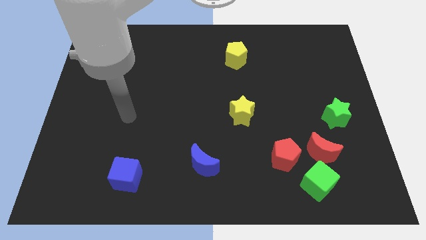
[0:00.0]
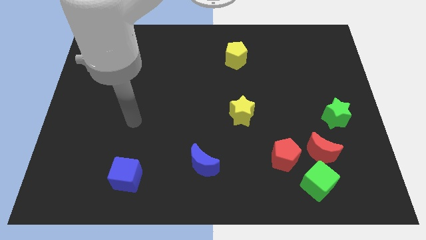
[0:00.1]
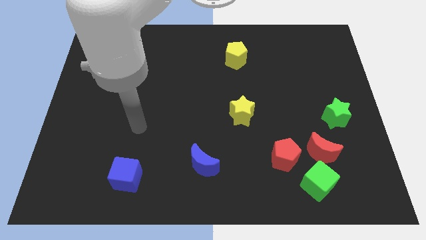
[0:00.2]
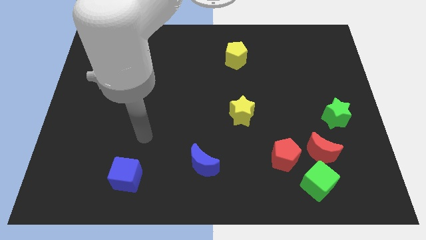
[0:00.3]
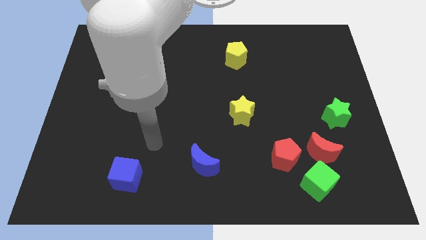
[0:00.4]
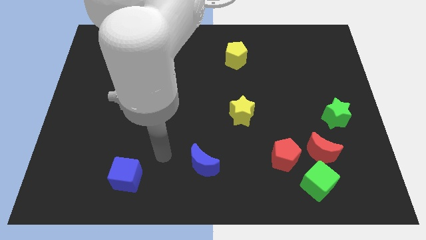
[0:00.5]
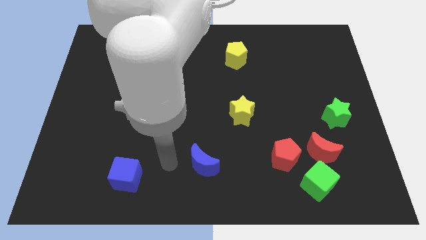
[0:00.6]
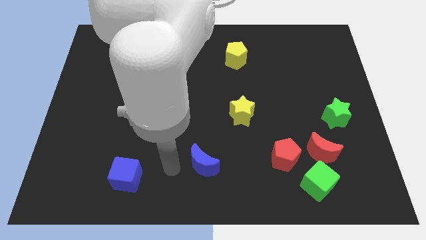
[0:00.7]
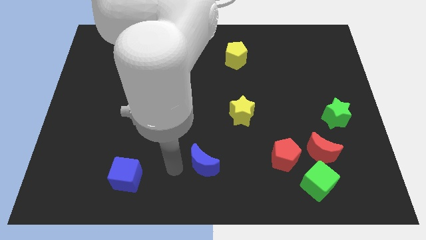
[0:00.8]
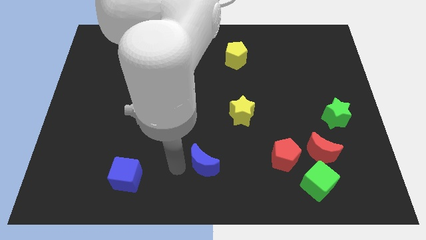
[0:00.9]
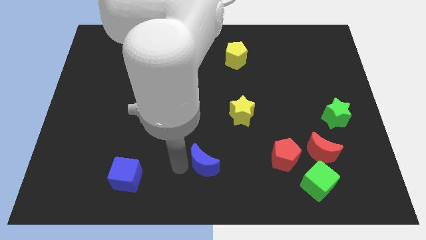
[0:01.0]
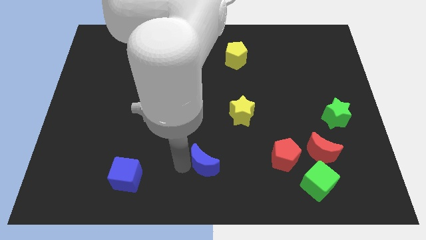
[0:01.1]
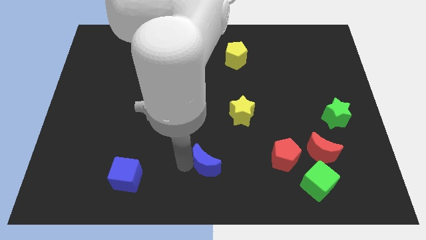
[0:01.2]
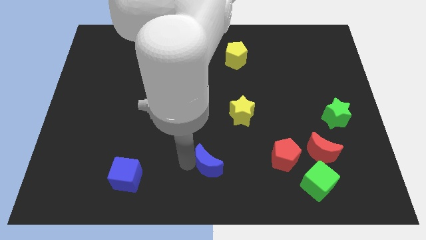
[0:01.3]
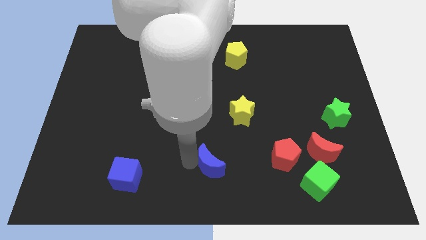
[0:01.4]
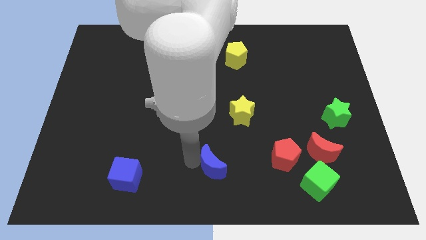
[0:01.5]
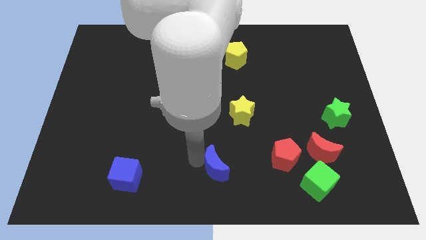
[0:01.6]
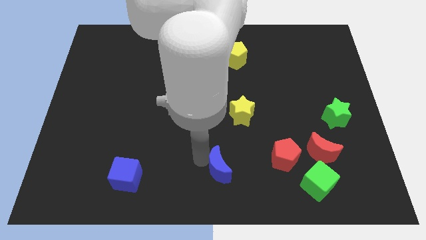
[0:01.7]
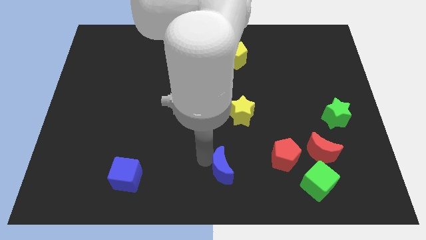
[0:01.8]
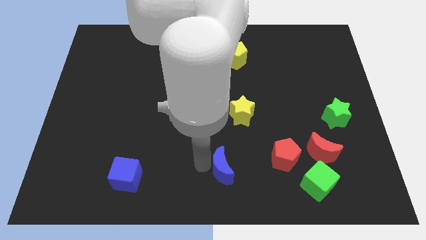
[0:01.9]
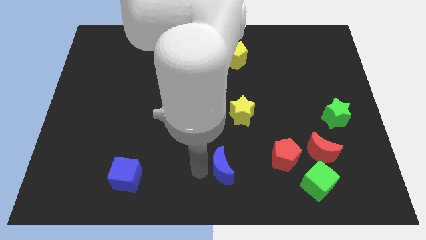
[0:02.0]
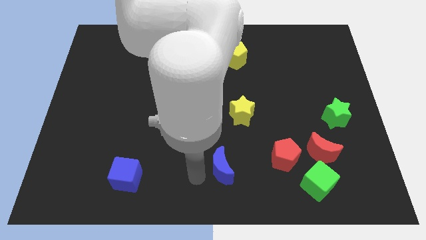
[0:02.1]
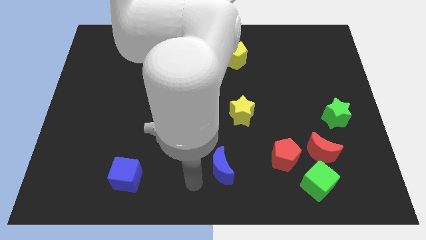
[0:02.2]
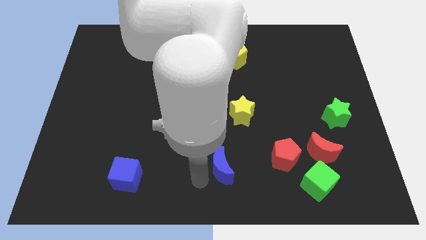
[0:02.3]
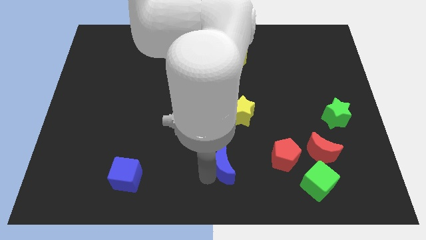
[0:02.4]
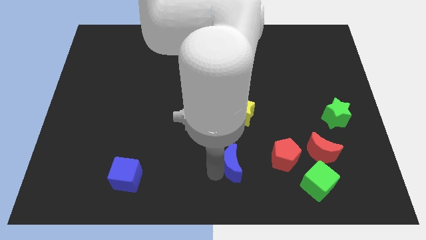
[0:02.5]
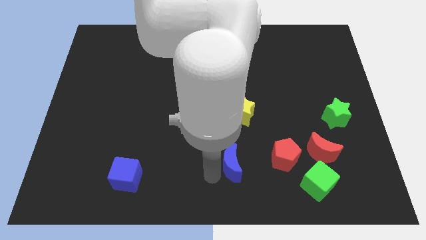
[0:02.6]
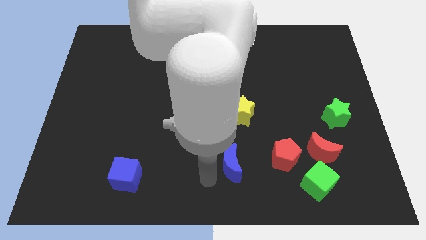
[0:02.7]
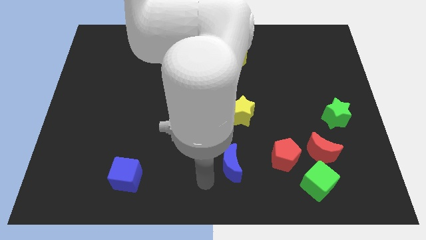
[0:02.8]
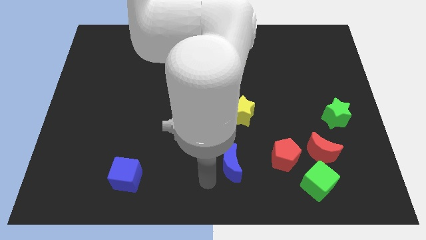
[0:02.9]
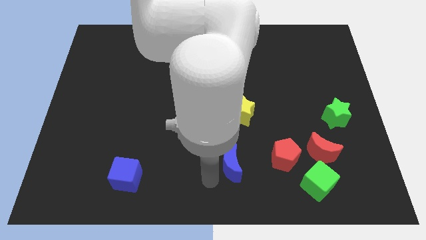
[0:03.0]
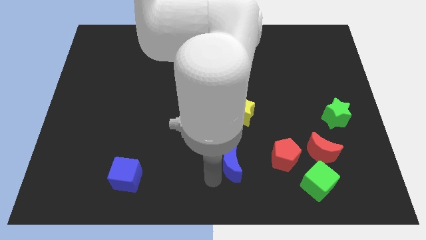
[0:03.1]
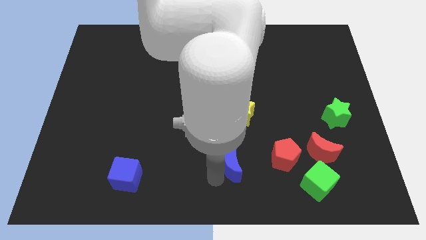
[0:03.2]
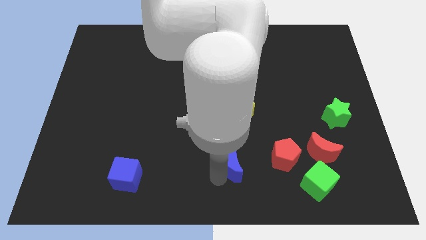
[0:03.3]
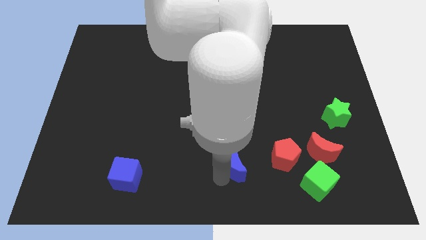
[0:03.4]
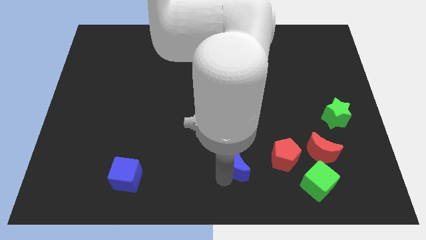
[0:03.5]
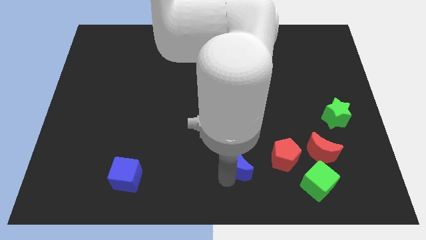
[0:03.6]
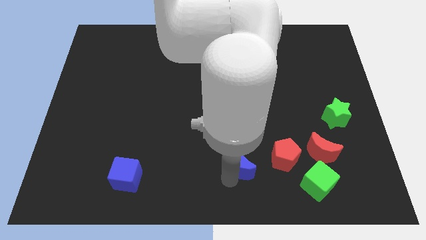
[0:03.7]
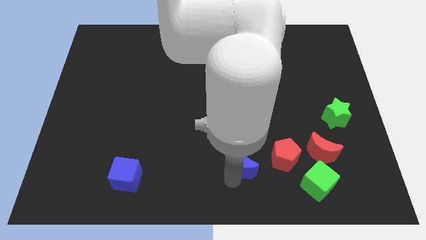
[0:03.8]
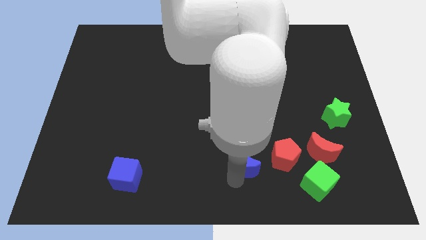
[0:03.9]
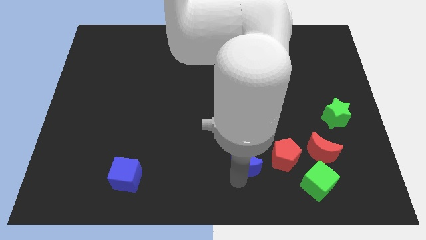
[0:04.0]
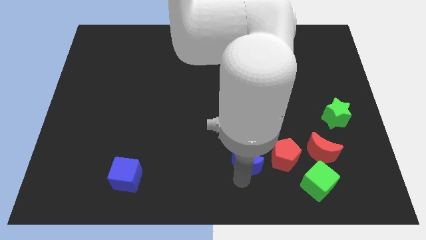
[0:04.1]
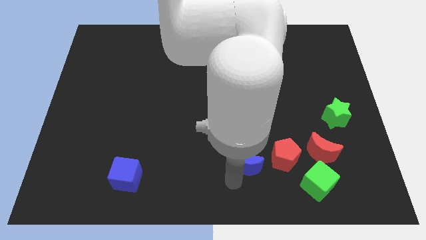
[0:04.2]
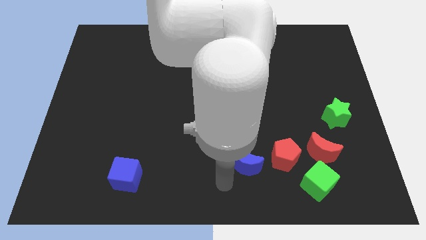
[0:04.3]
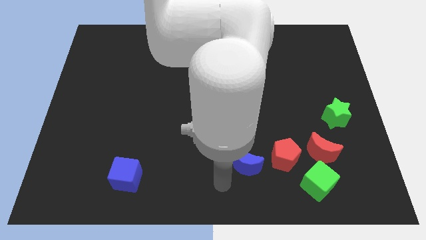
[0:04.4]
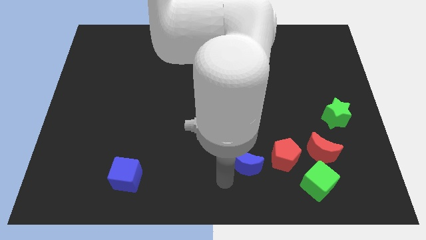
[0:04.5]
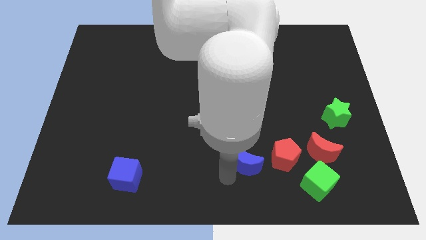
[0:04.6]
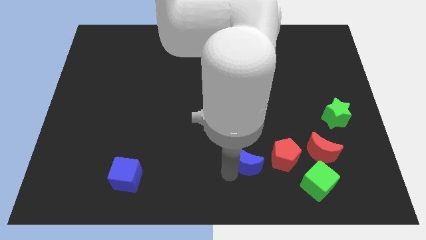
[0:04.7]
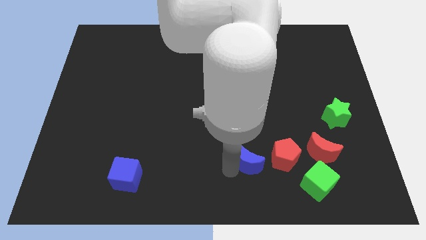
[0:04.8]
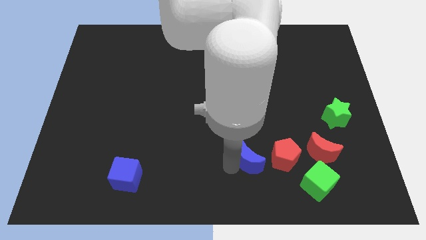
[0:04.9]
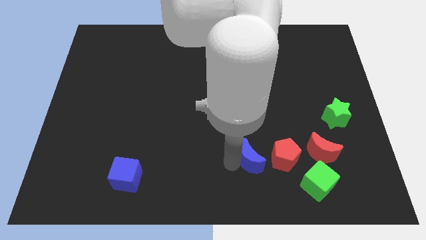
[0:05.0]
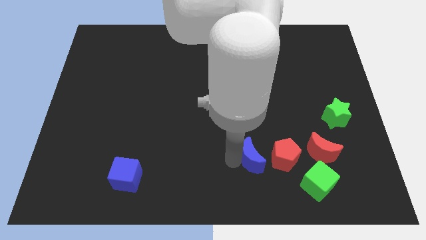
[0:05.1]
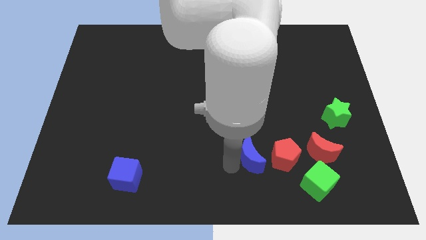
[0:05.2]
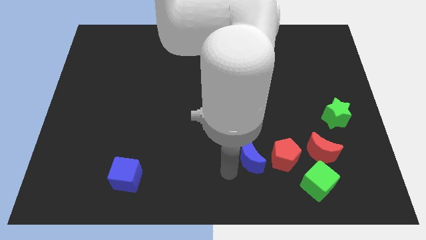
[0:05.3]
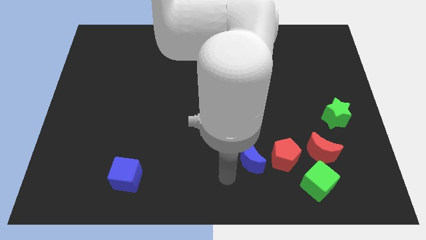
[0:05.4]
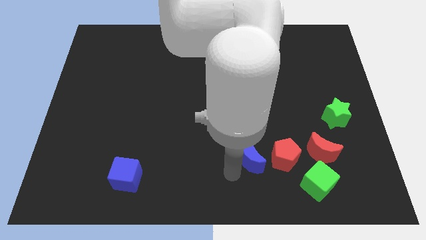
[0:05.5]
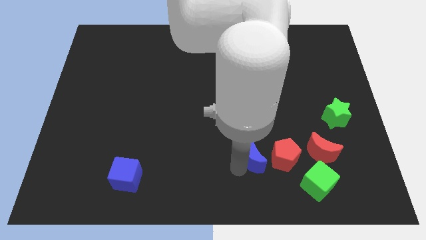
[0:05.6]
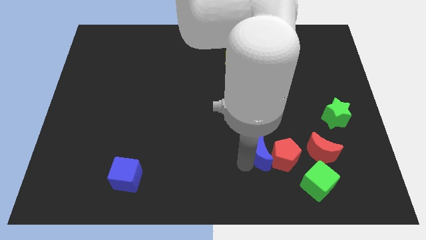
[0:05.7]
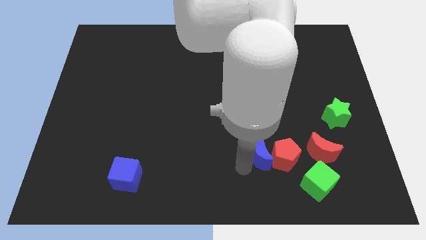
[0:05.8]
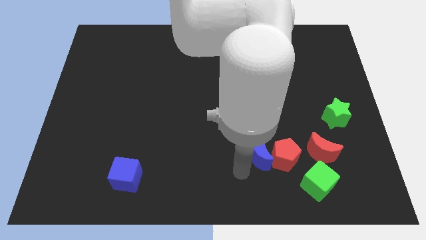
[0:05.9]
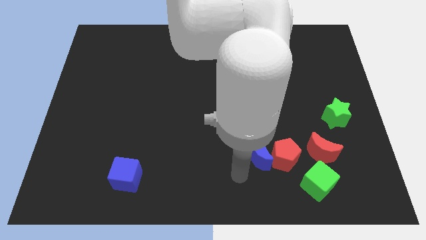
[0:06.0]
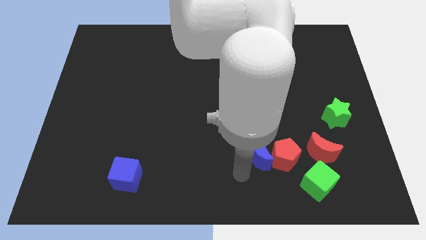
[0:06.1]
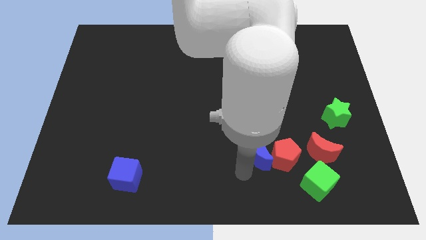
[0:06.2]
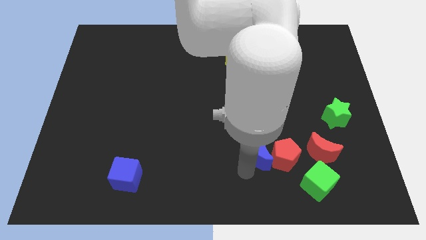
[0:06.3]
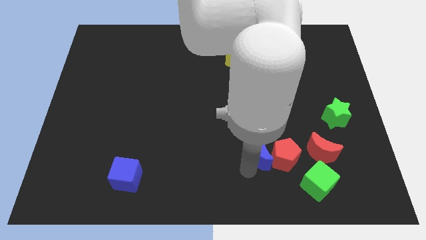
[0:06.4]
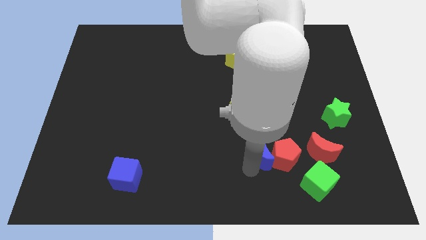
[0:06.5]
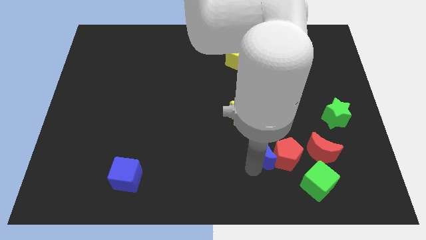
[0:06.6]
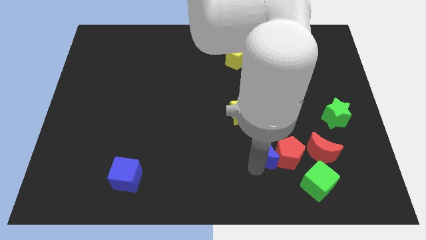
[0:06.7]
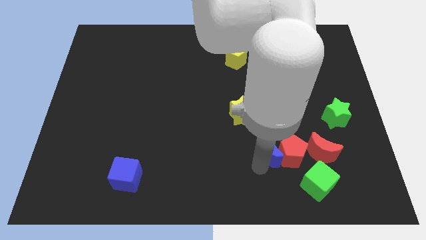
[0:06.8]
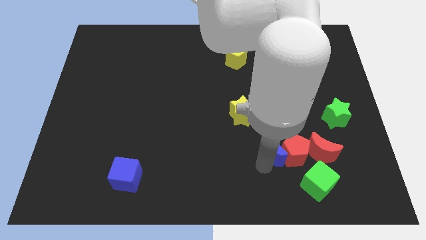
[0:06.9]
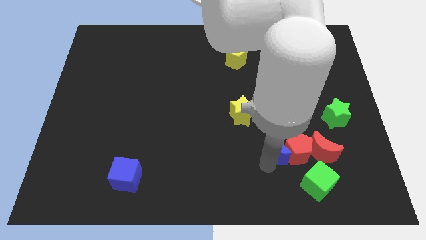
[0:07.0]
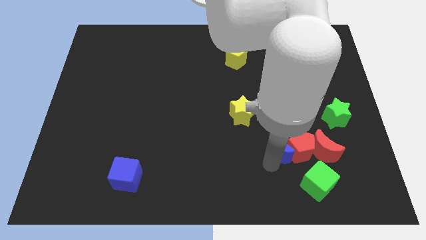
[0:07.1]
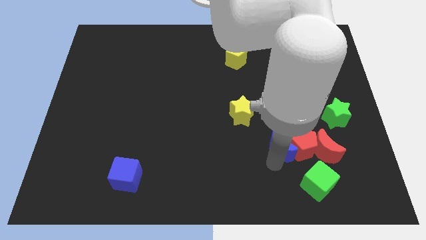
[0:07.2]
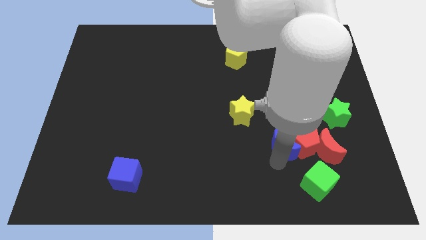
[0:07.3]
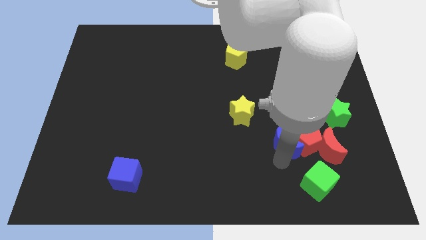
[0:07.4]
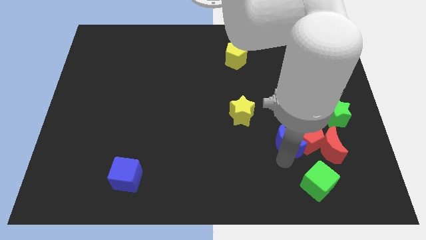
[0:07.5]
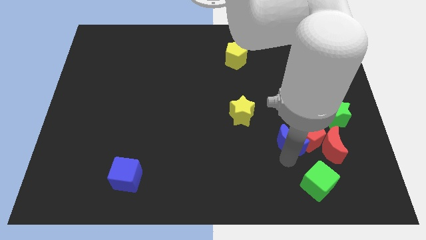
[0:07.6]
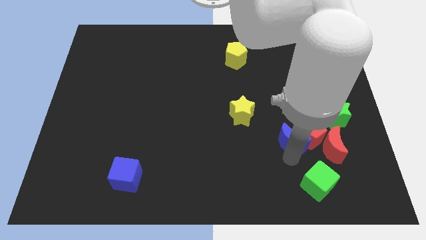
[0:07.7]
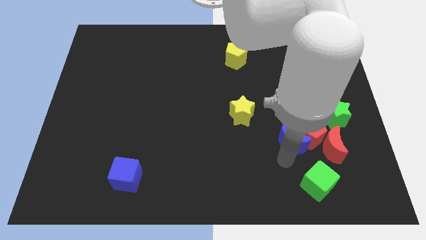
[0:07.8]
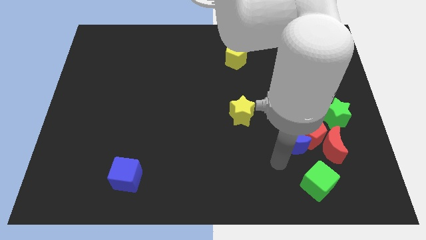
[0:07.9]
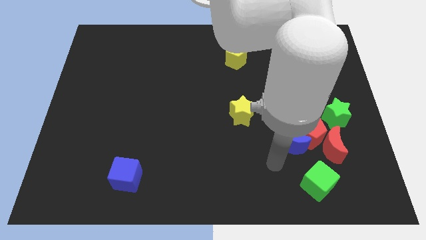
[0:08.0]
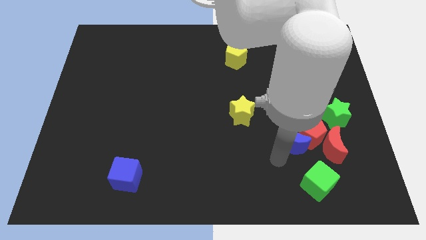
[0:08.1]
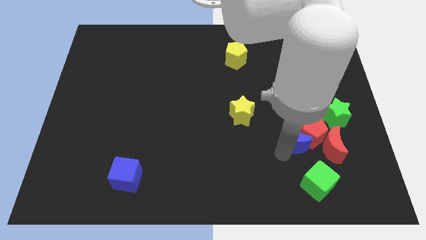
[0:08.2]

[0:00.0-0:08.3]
put the blue moon to the top left side of the red moon
